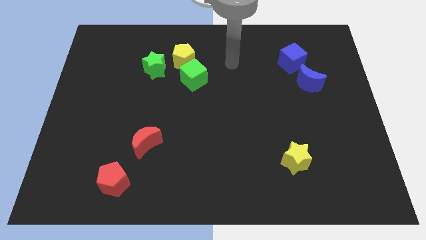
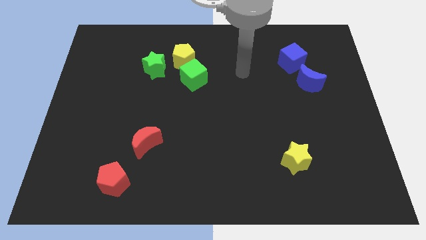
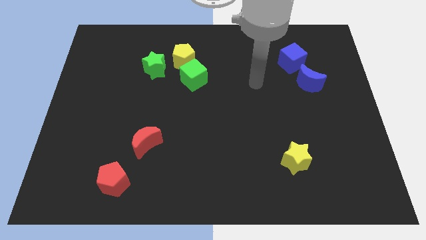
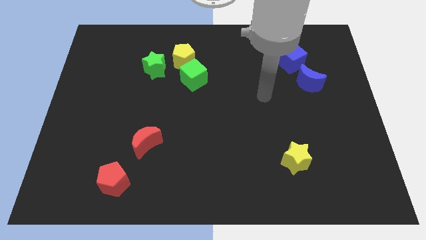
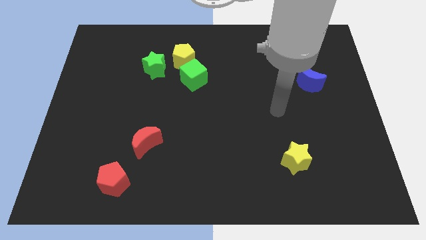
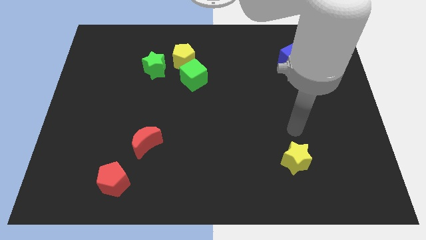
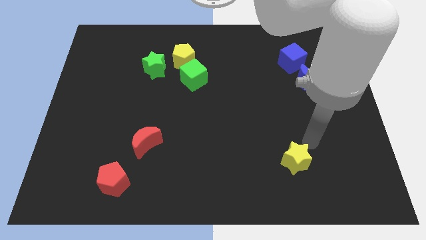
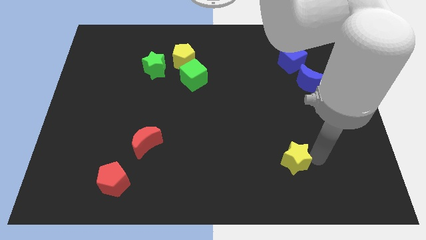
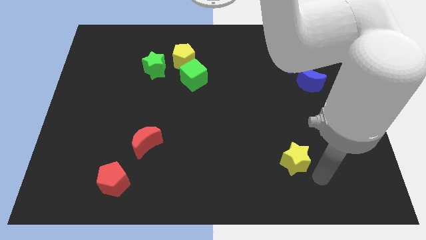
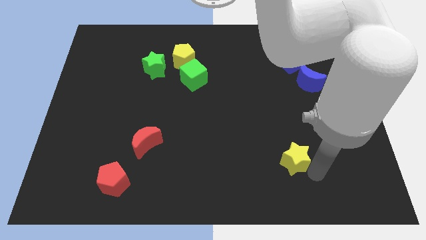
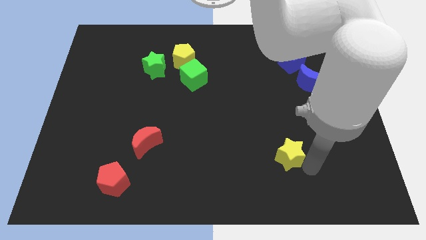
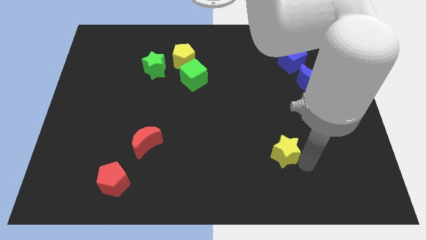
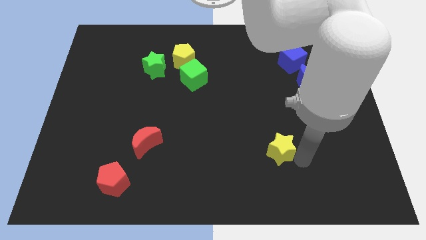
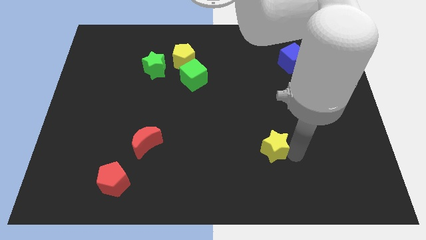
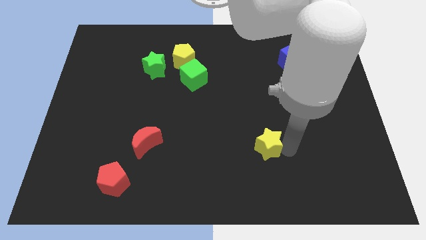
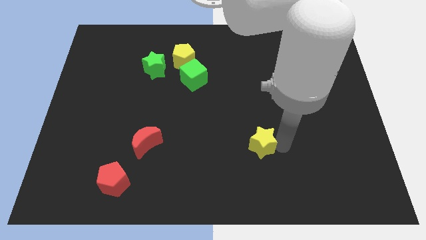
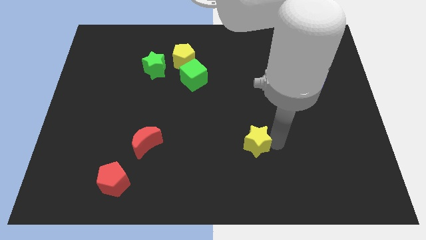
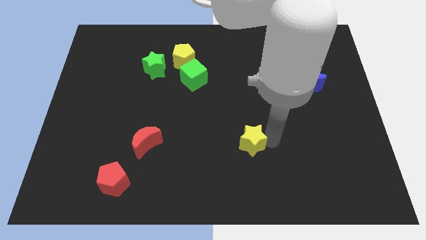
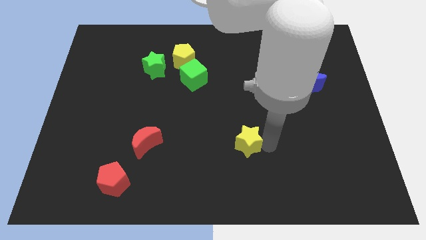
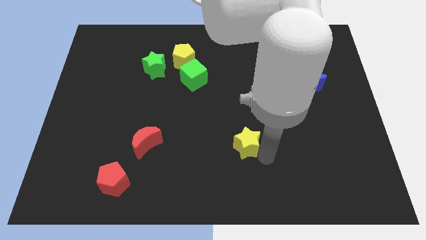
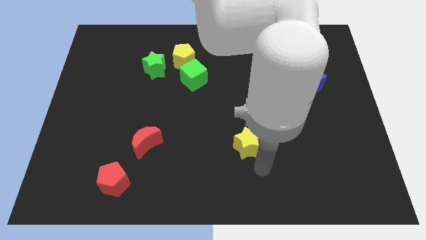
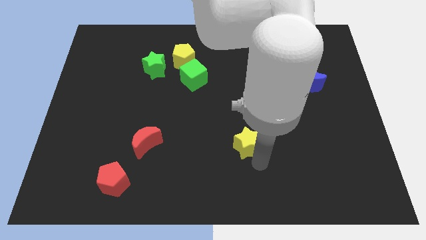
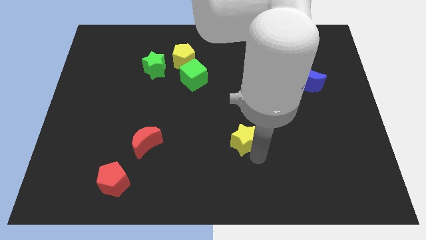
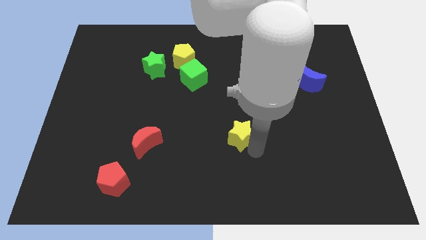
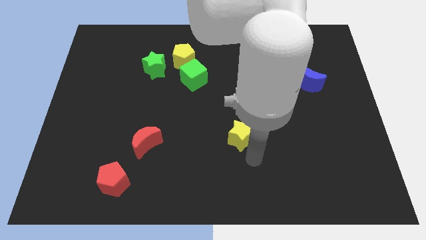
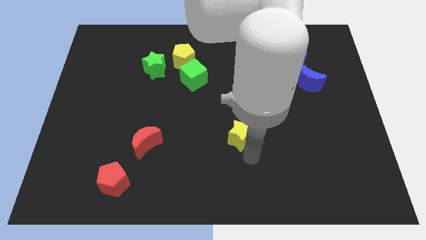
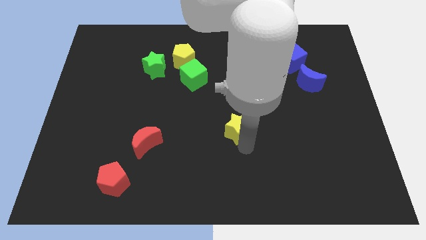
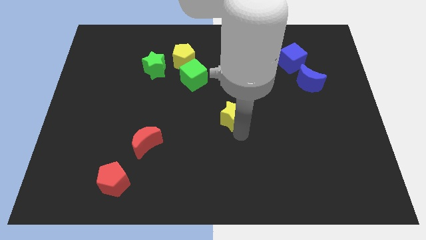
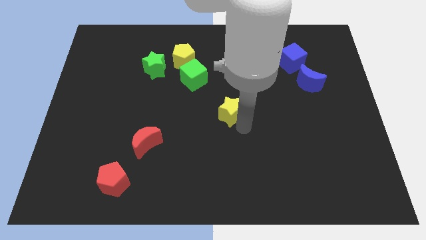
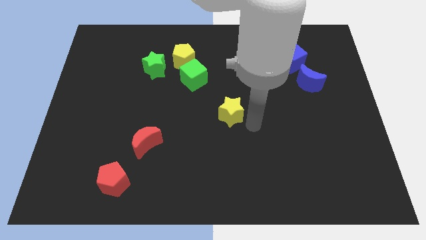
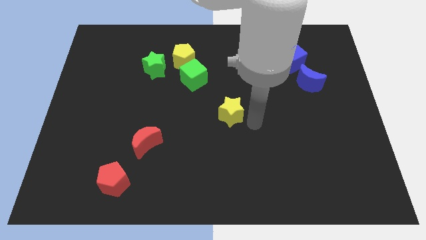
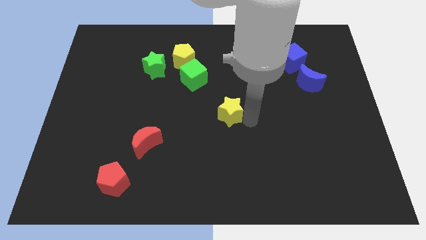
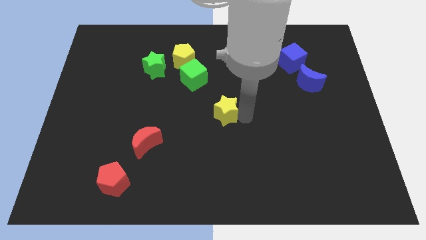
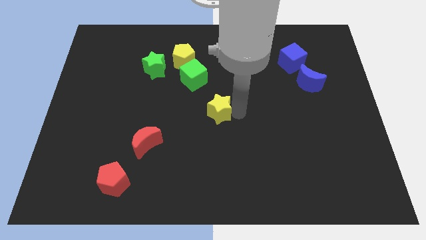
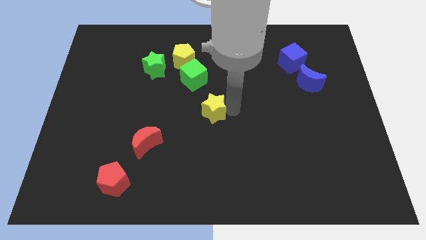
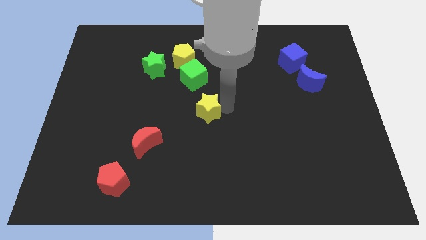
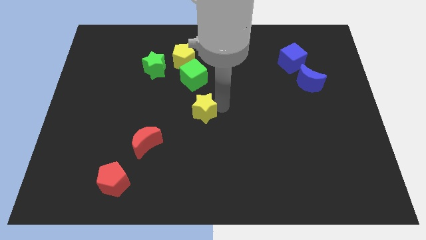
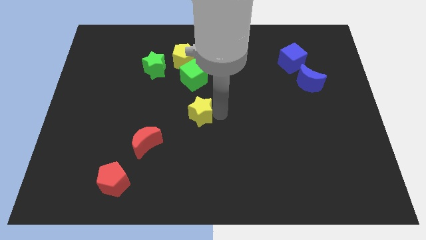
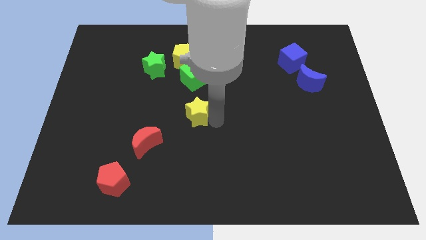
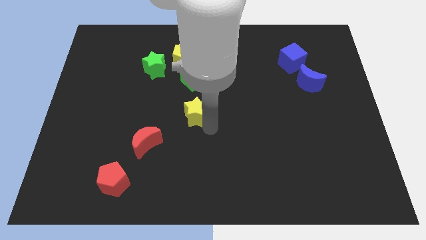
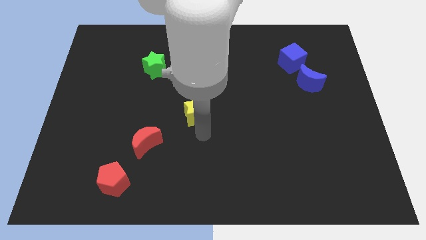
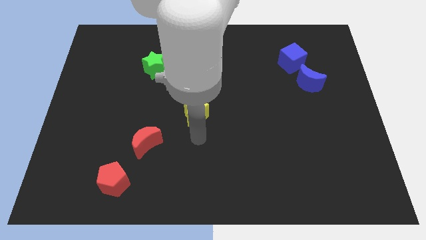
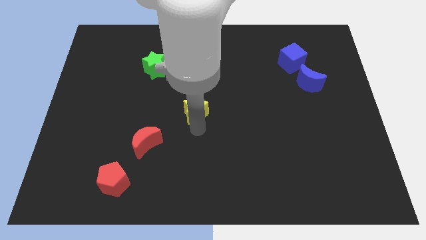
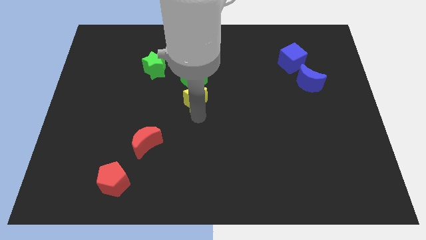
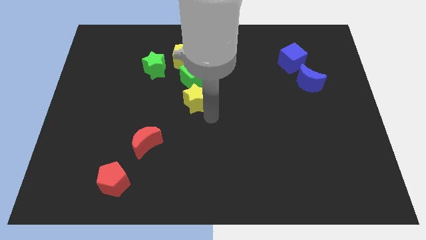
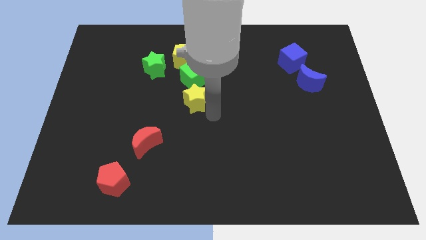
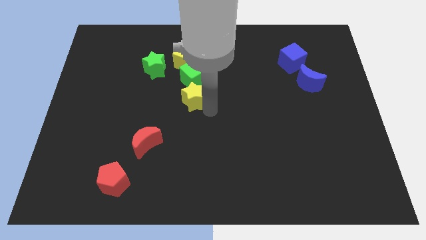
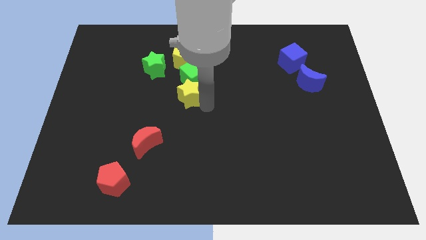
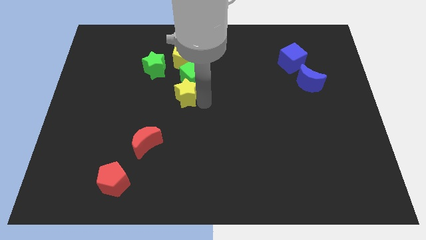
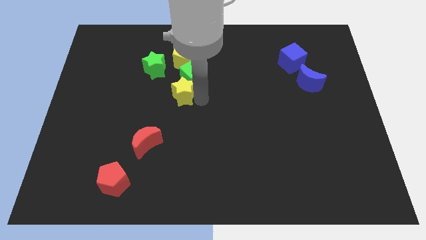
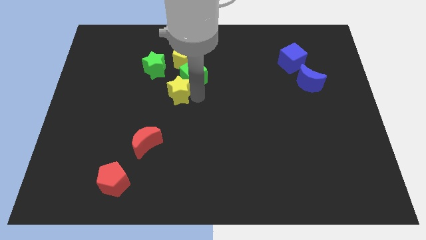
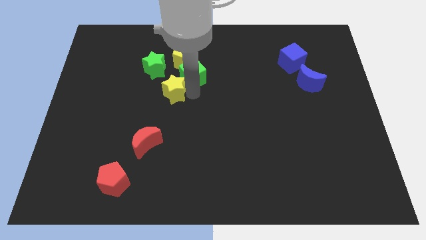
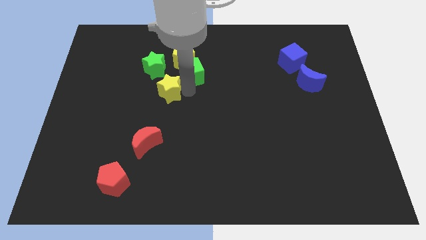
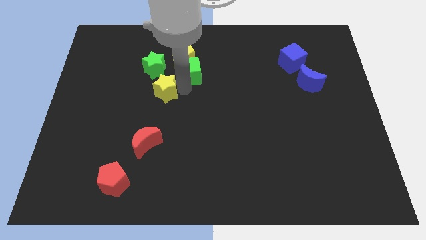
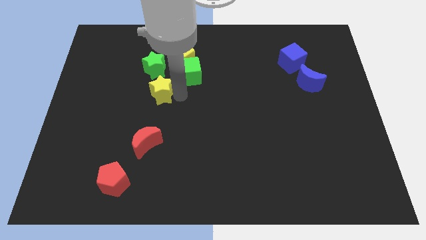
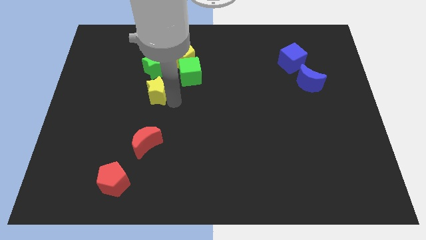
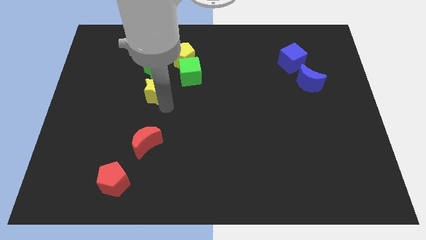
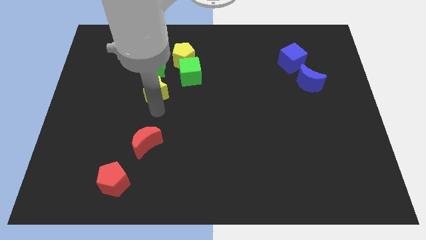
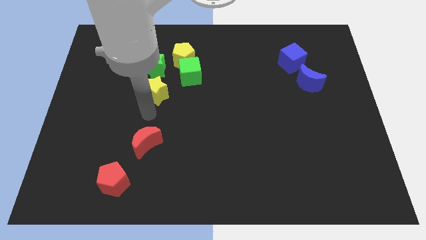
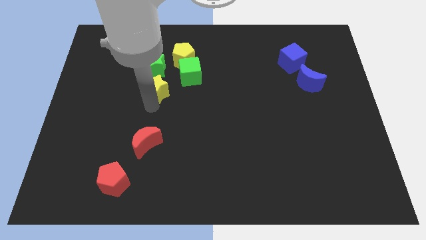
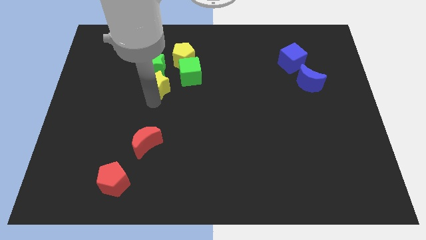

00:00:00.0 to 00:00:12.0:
put the yellow star to the green star

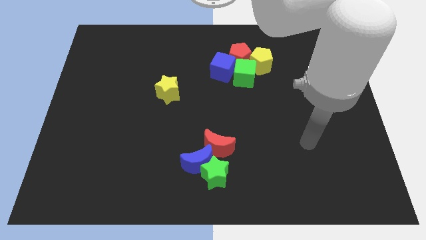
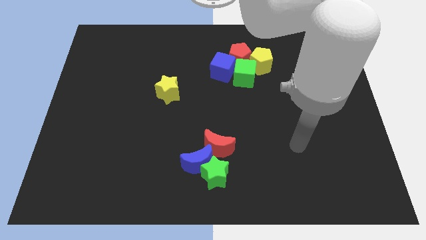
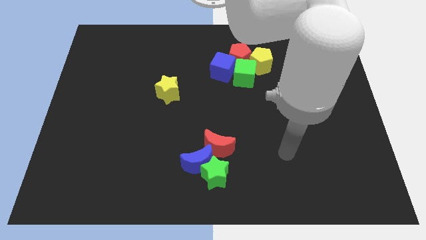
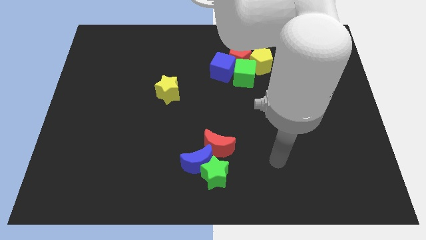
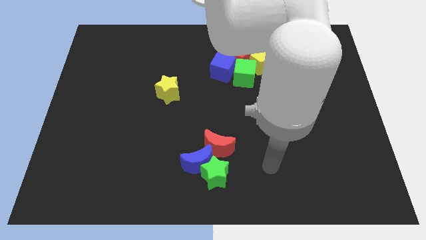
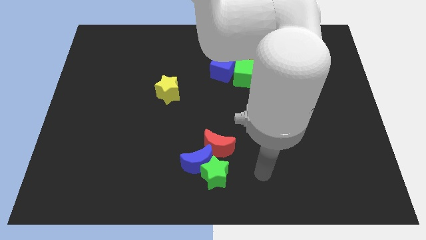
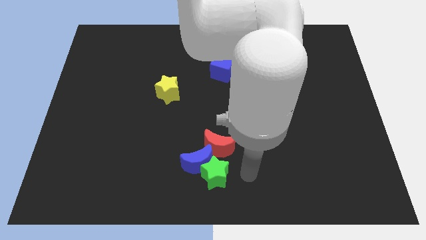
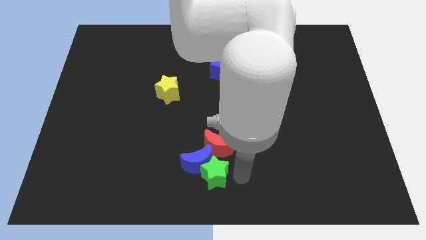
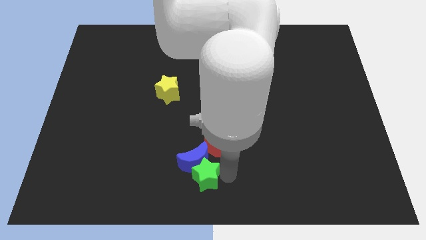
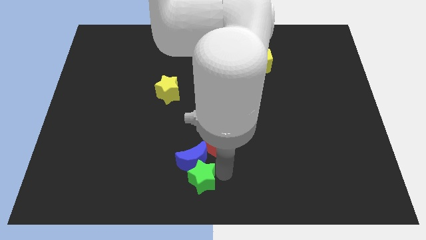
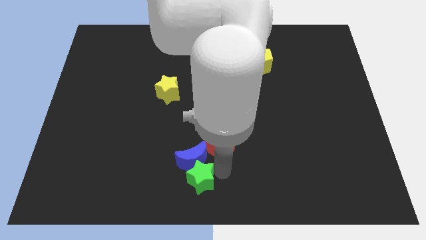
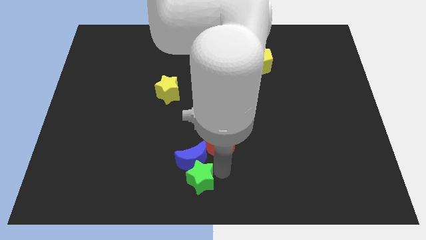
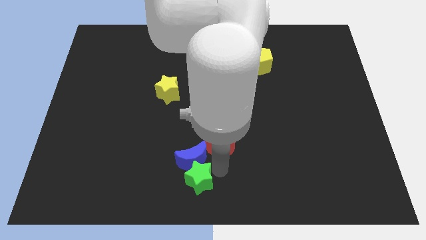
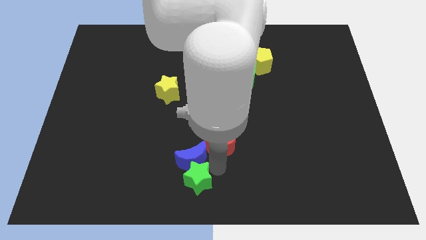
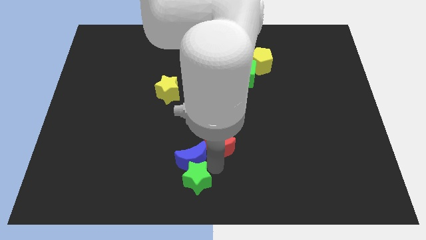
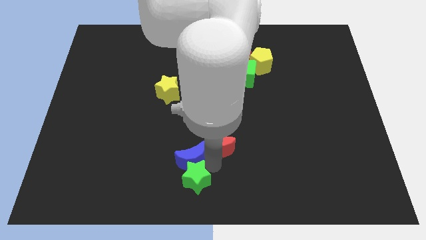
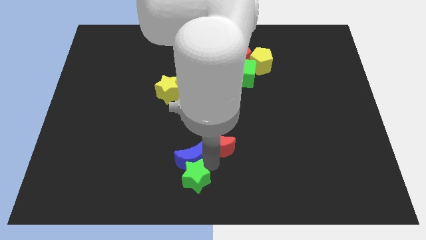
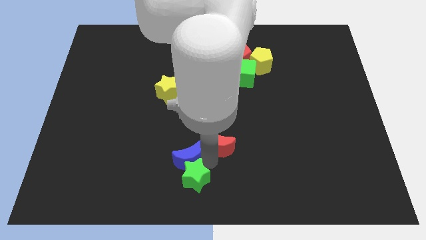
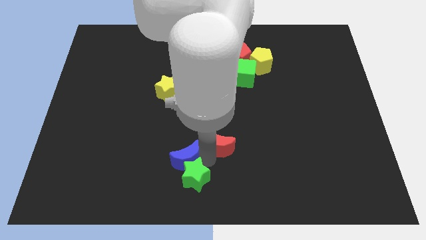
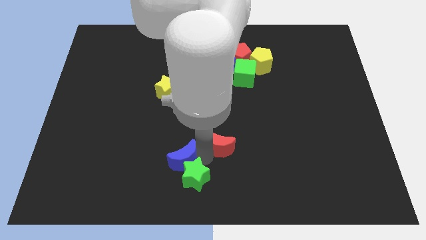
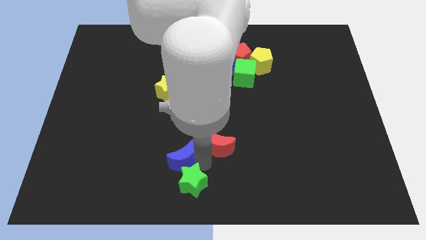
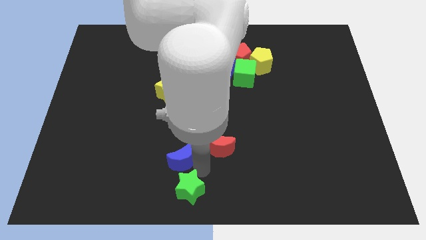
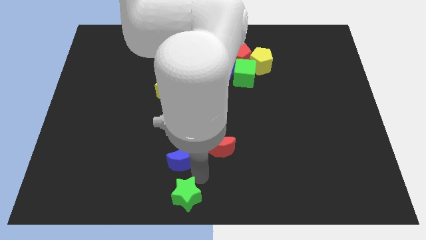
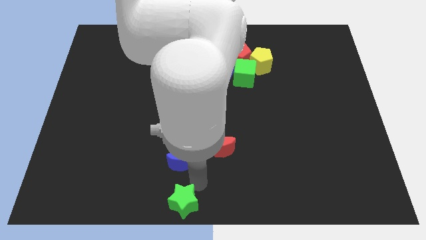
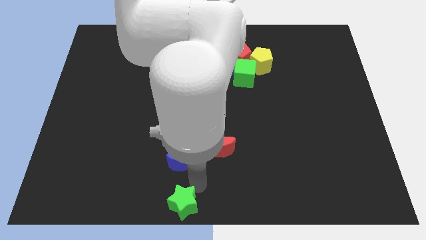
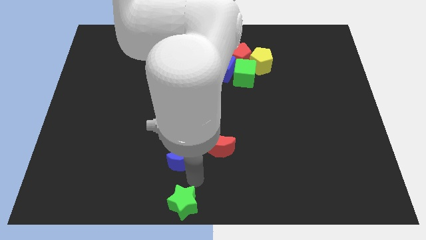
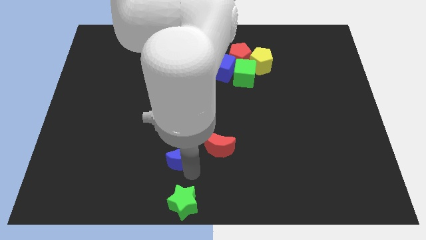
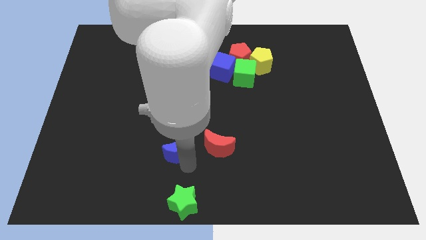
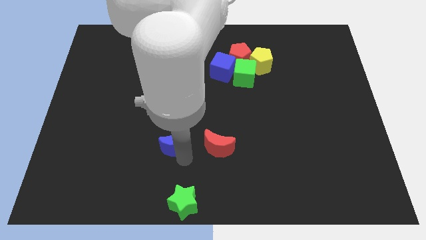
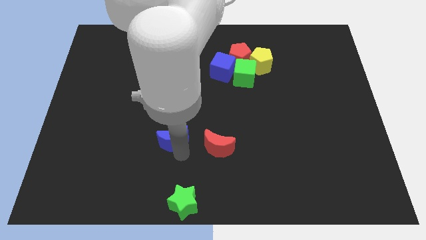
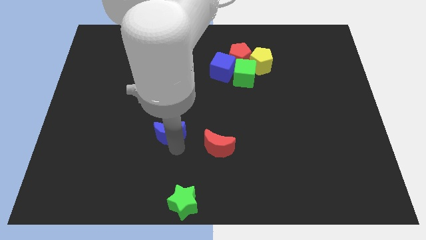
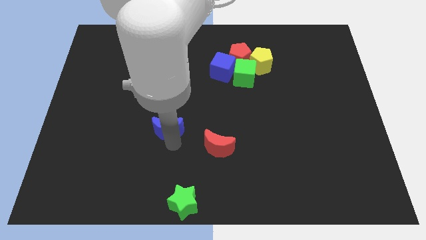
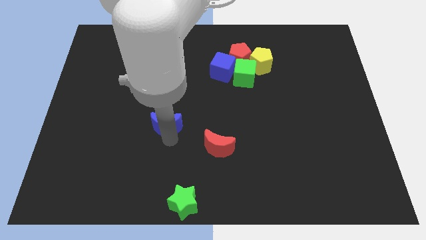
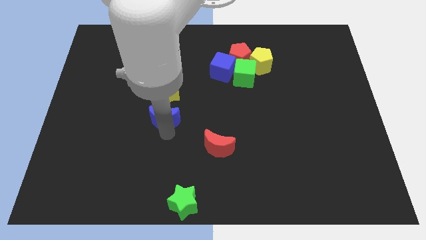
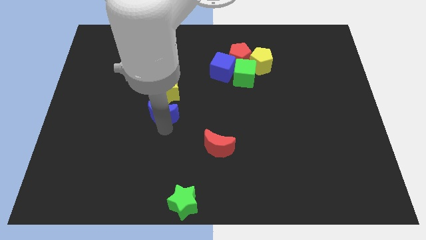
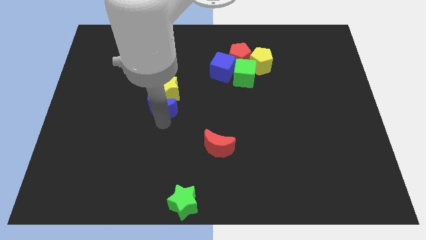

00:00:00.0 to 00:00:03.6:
slide the blue moon close to the yellow star
